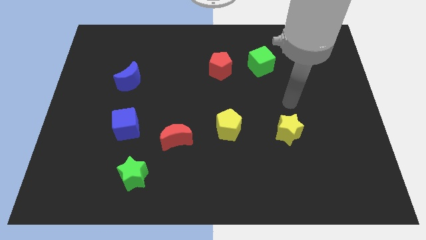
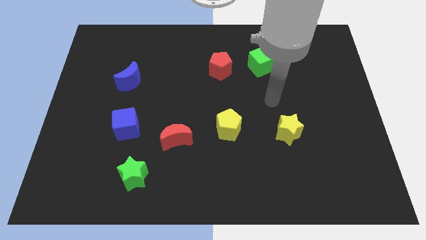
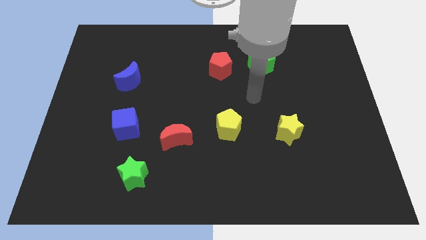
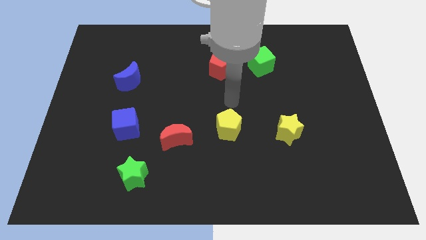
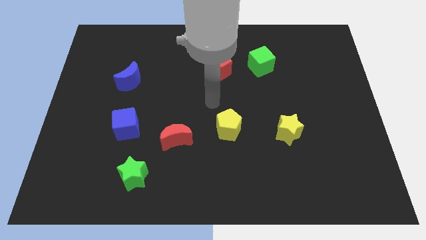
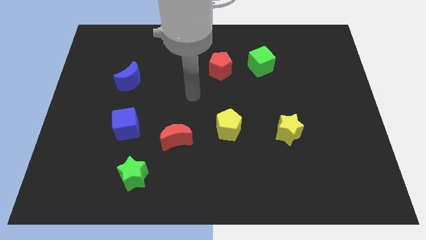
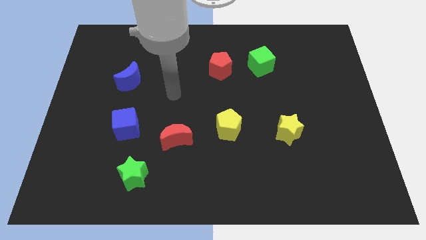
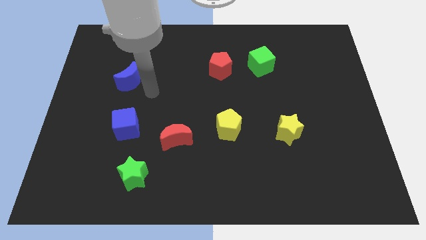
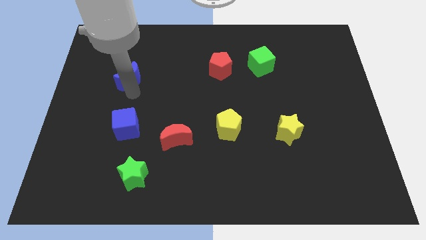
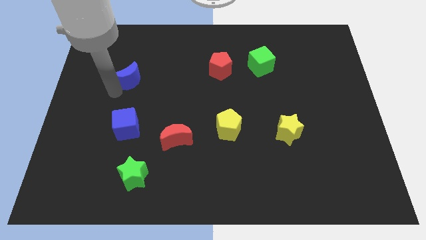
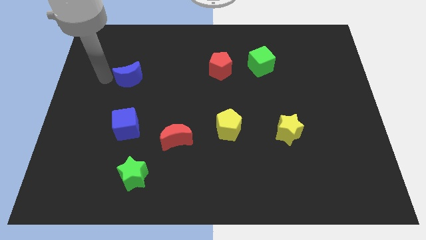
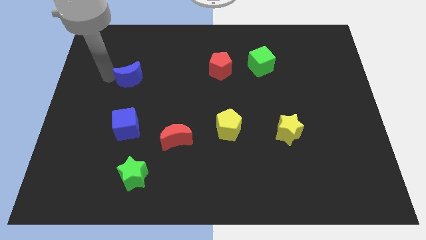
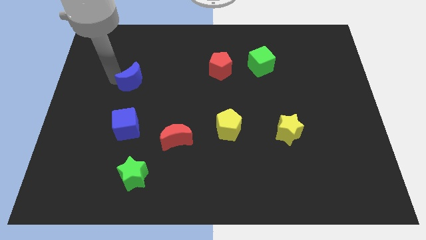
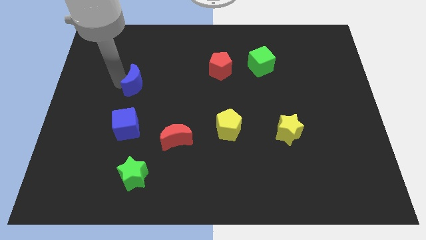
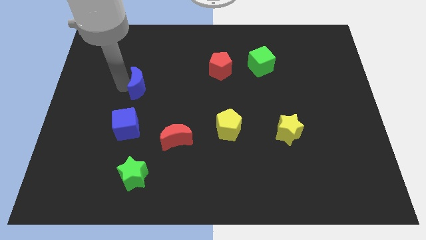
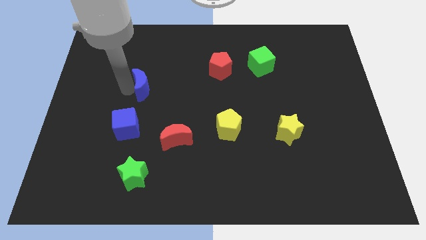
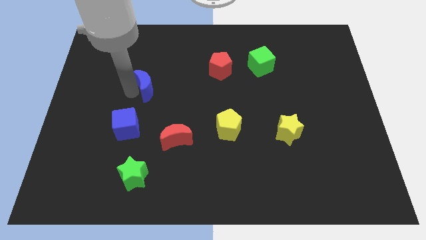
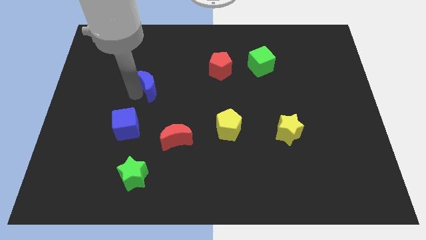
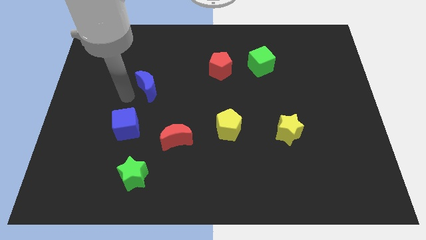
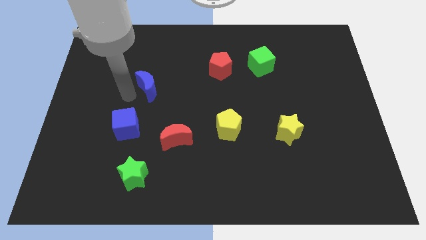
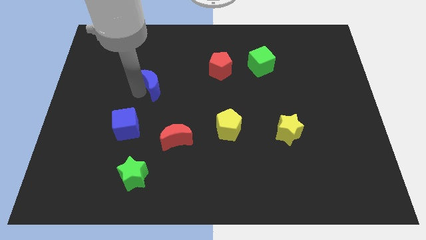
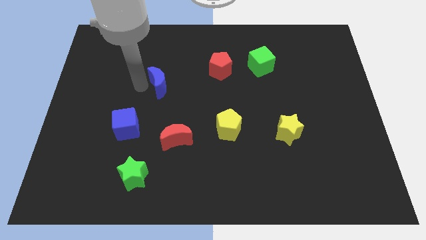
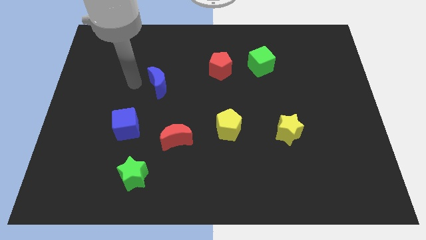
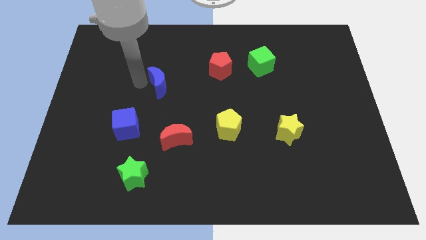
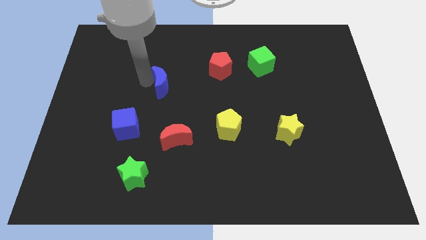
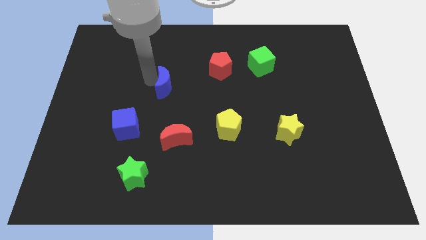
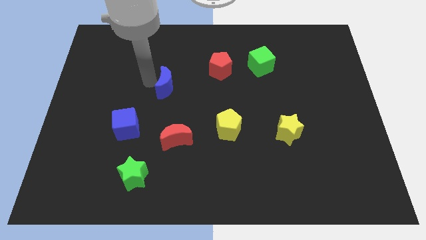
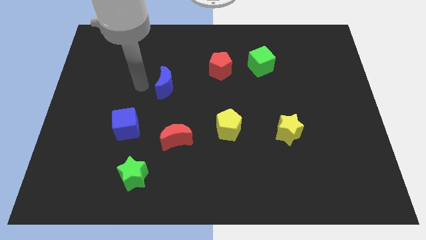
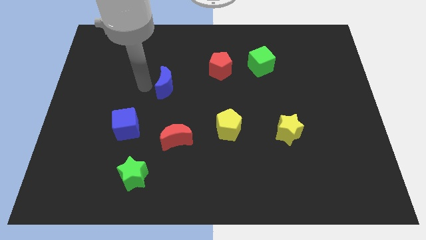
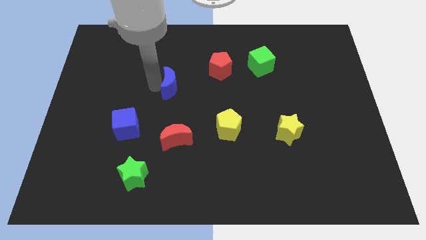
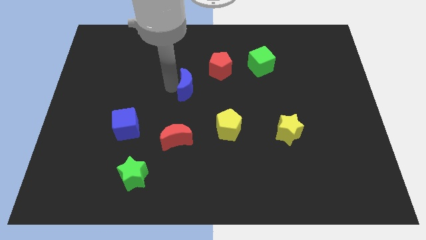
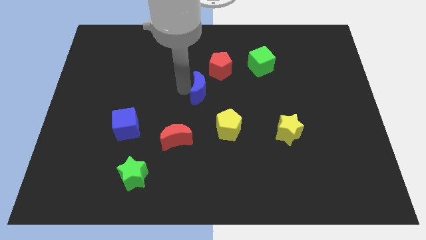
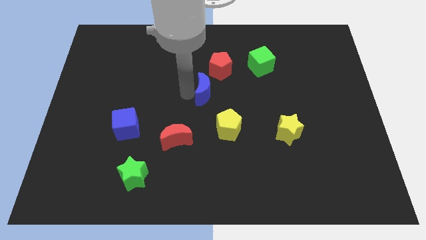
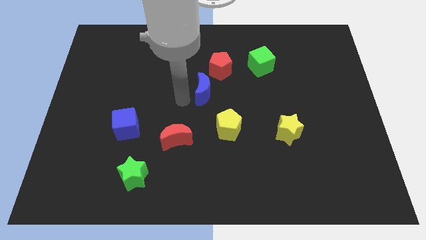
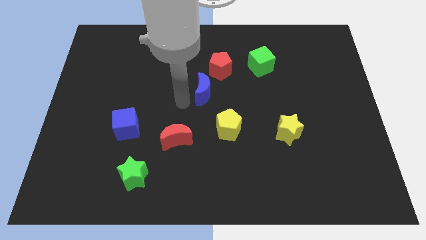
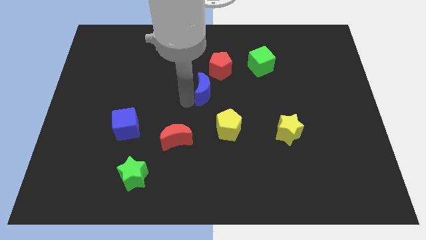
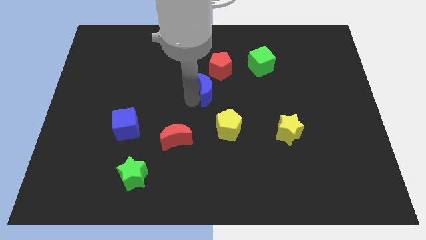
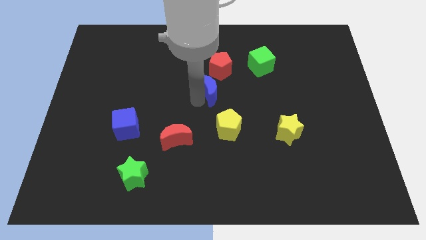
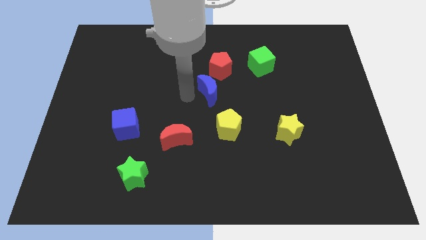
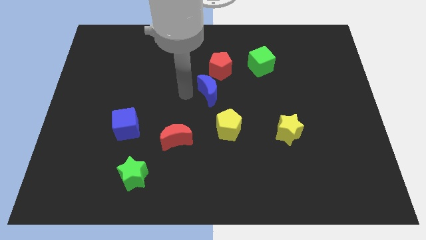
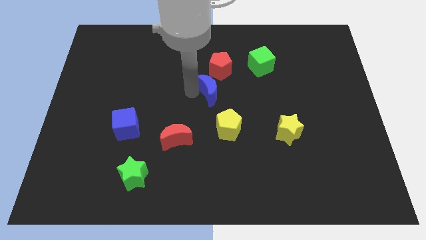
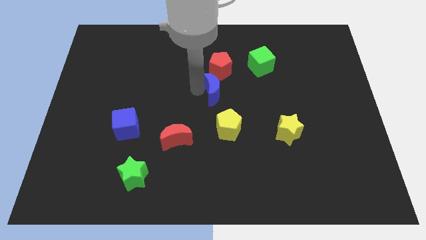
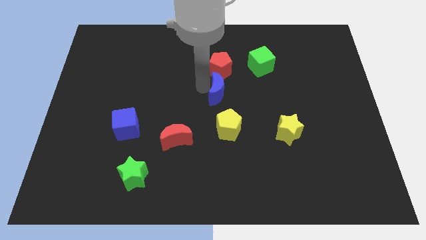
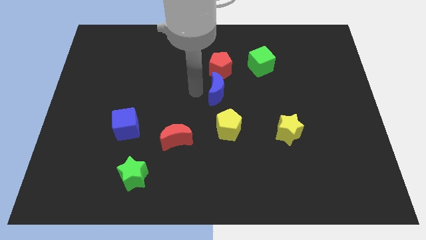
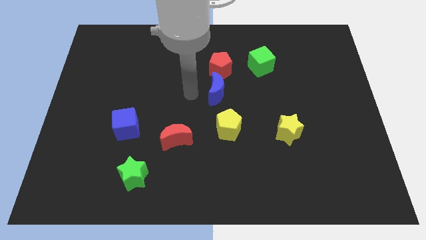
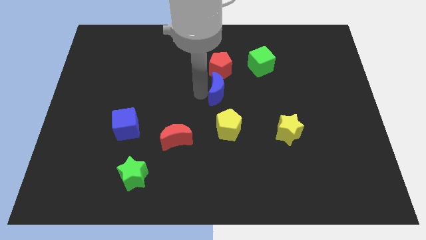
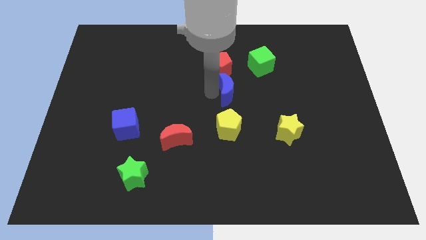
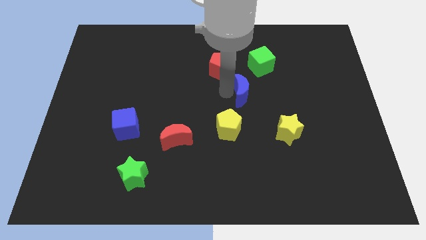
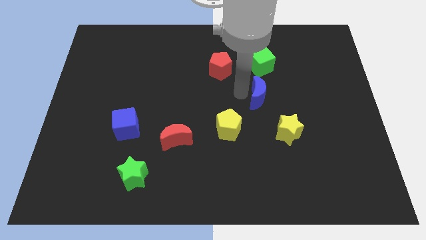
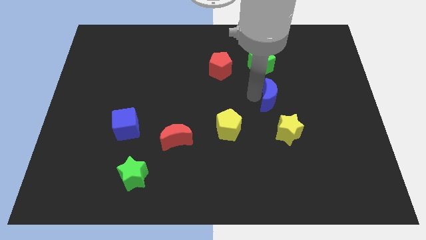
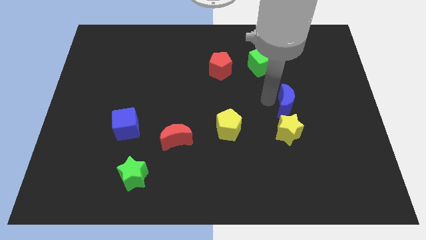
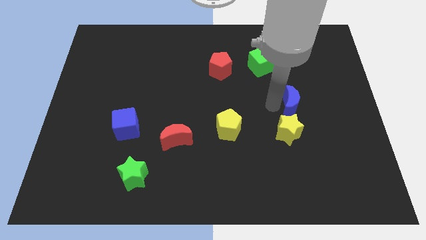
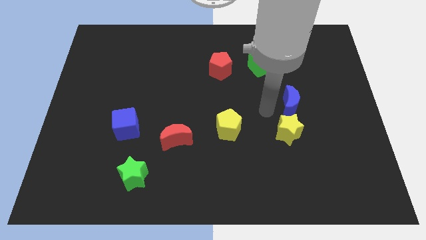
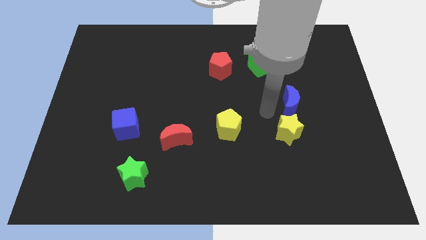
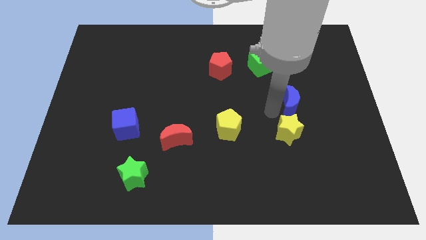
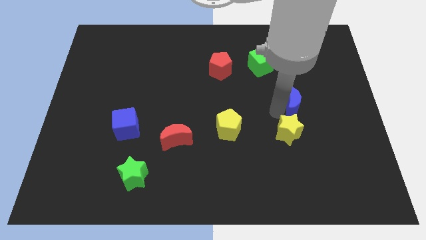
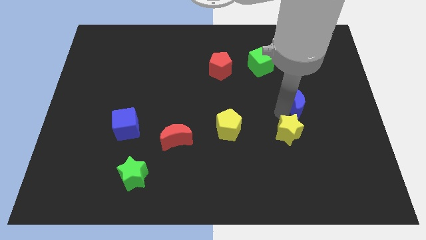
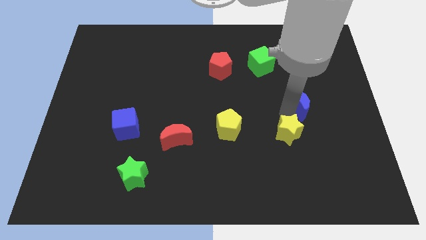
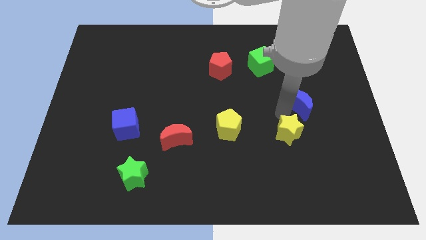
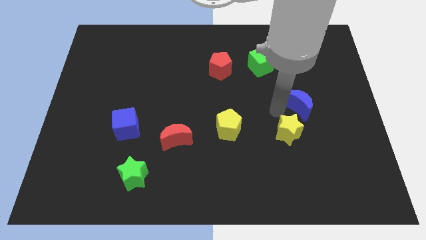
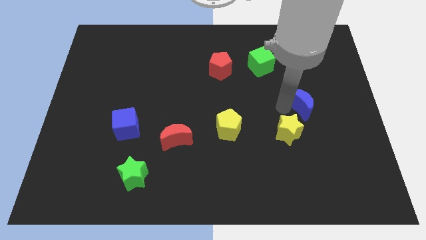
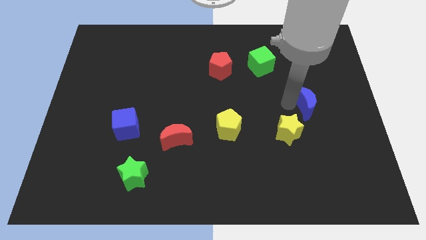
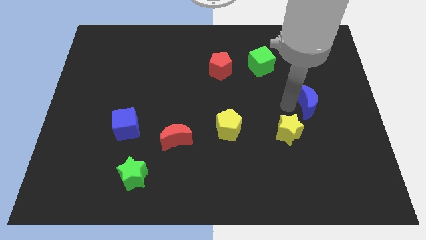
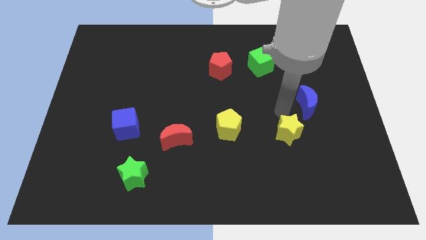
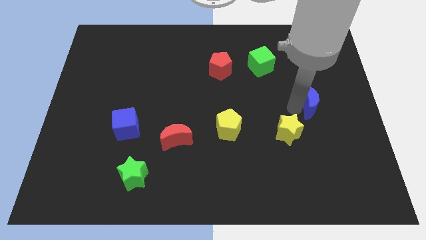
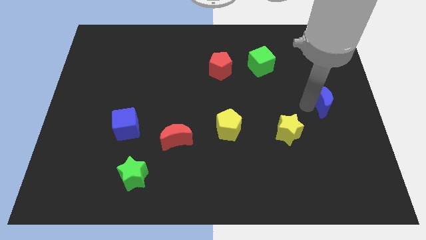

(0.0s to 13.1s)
move the blue moon to the center right
